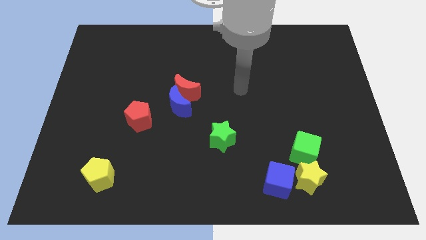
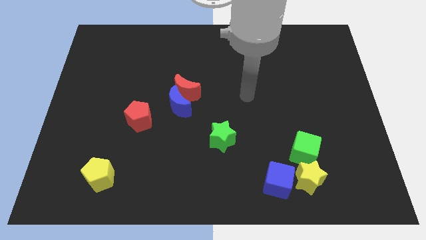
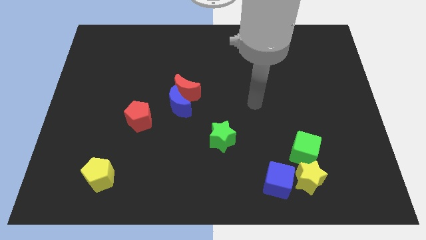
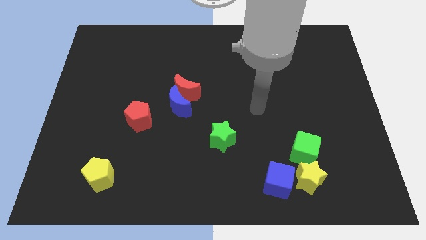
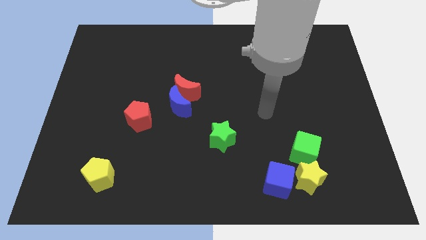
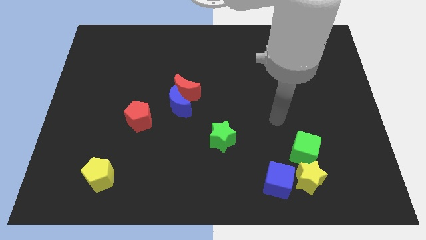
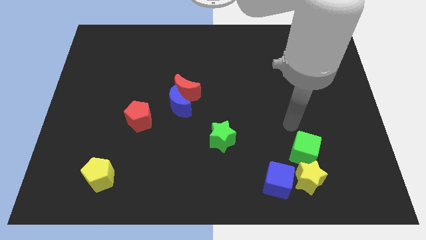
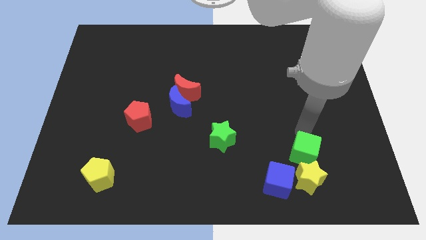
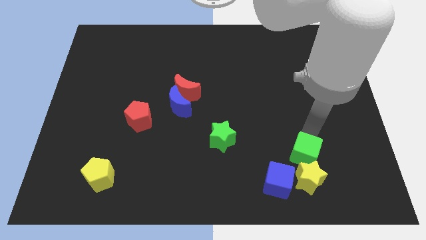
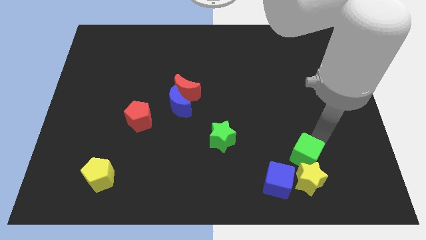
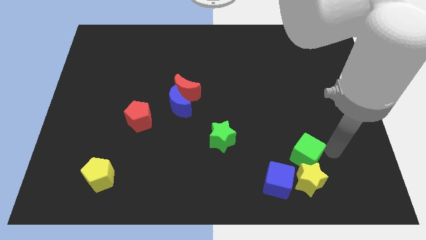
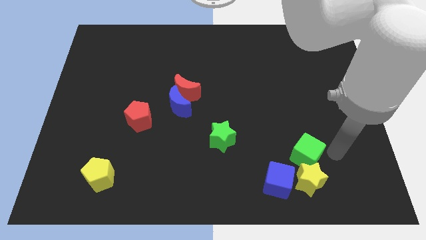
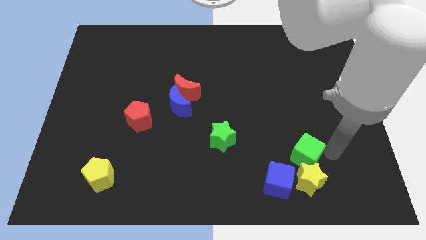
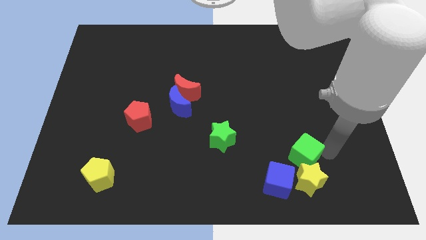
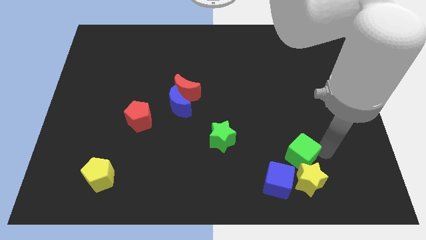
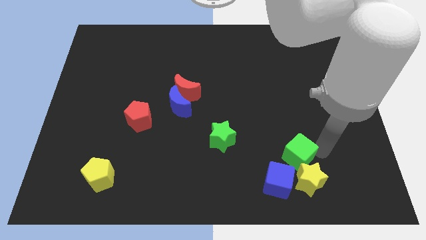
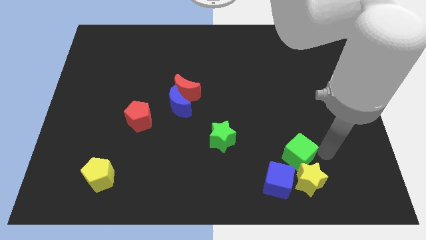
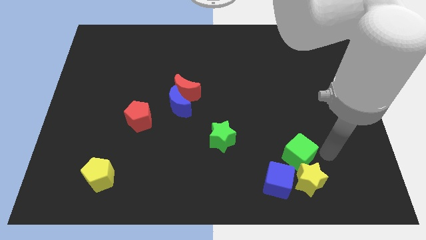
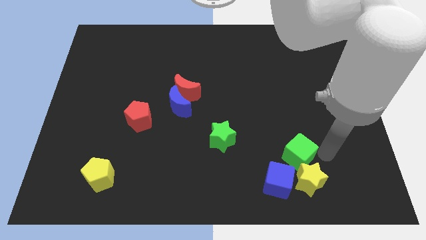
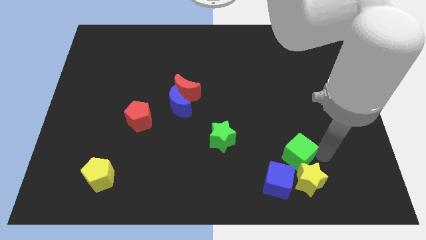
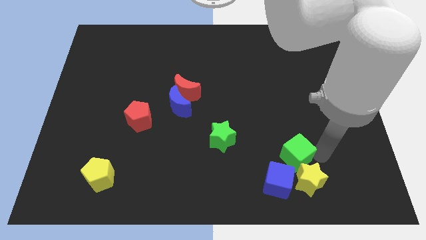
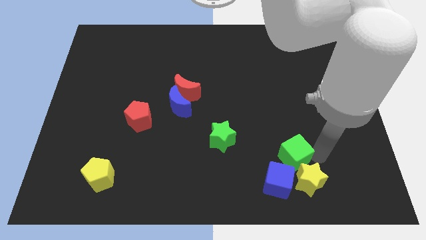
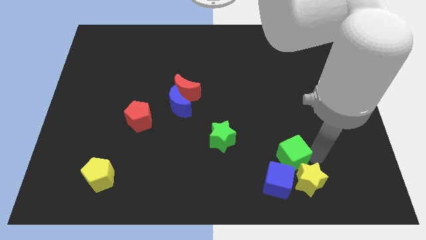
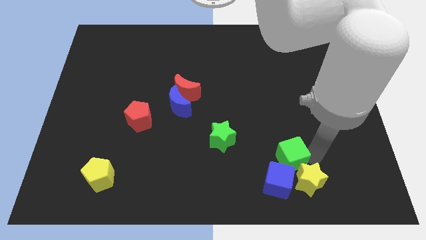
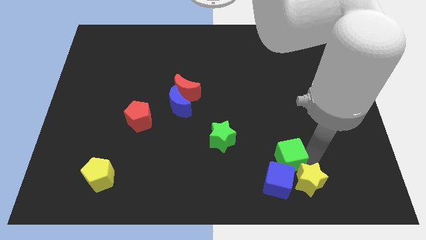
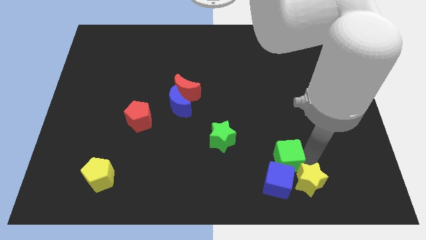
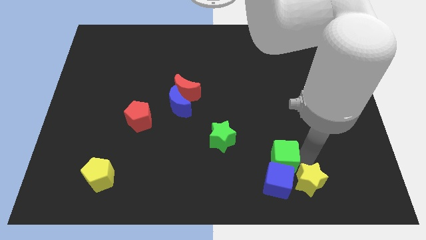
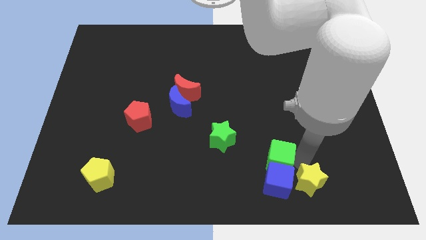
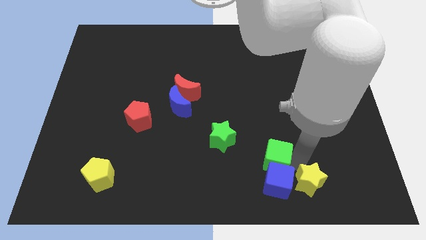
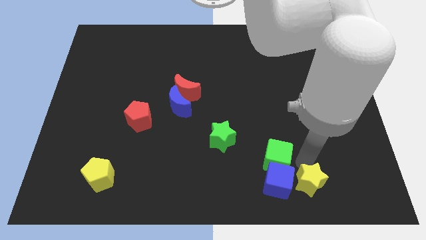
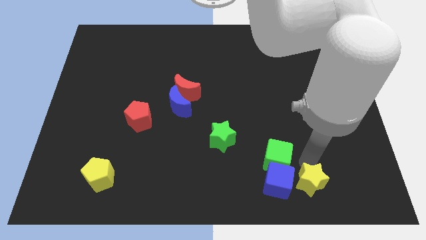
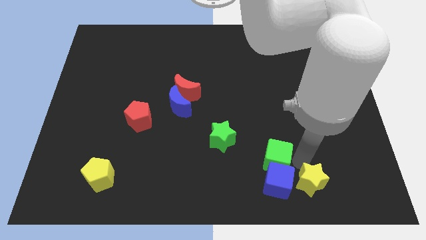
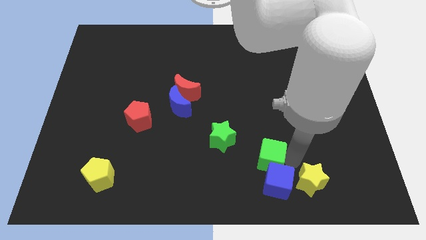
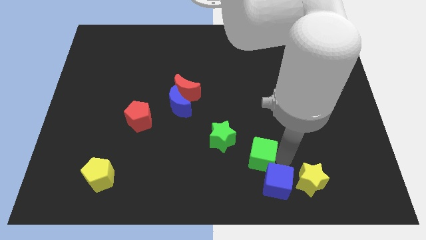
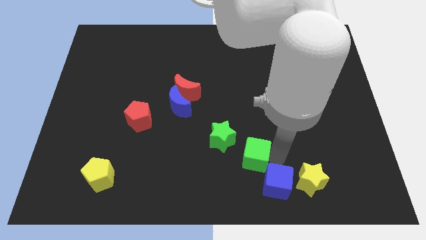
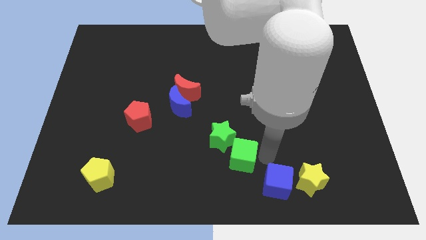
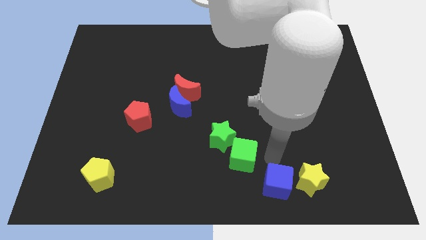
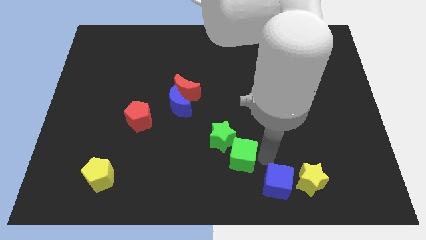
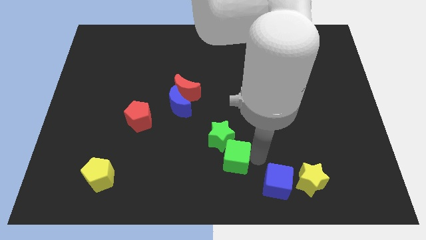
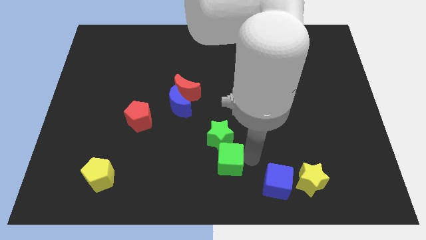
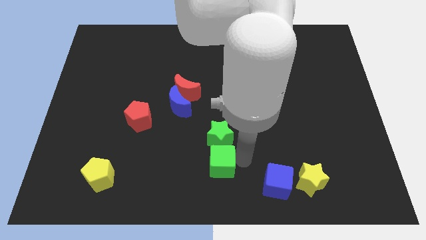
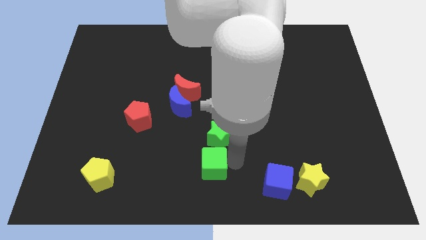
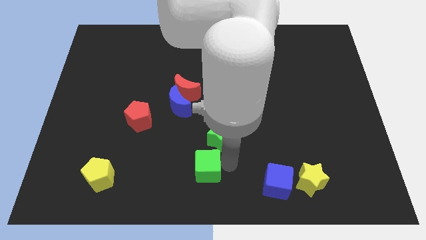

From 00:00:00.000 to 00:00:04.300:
move the green cube to the left

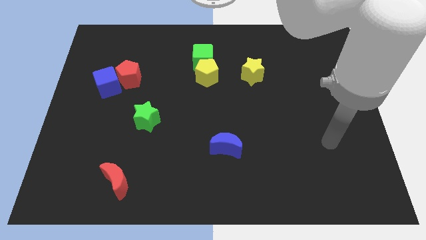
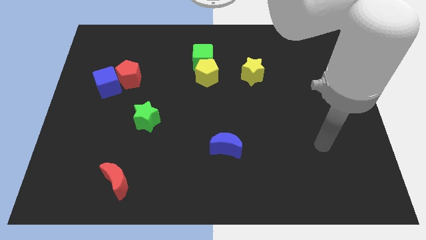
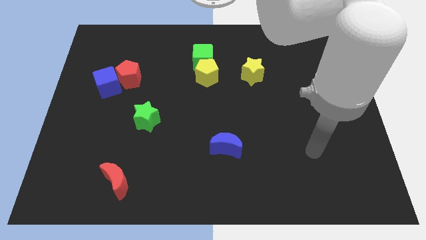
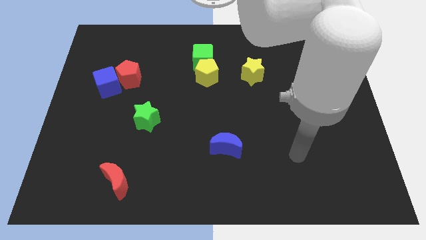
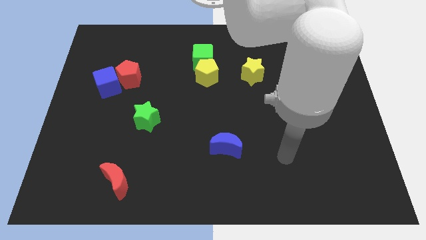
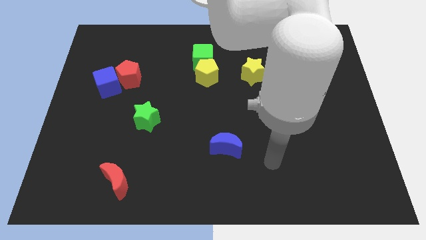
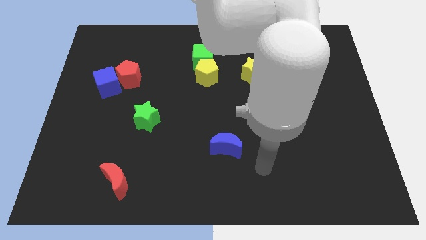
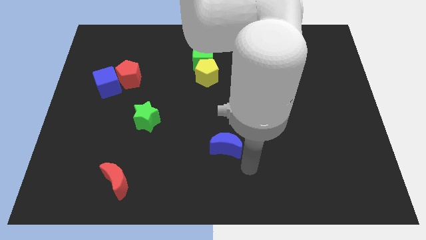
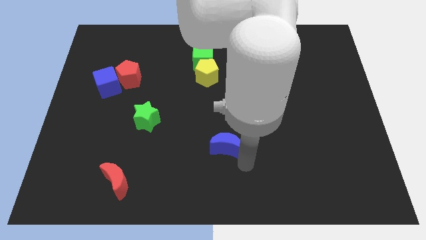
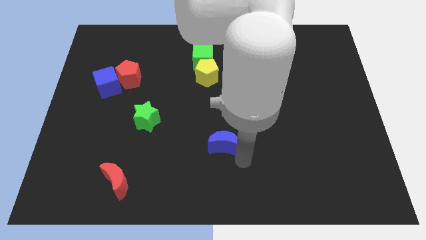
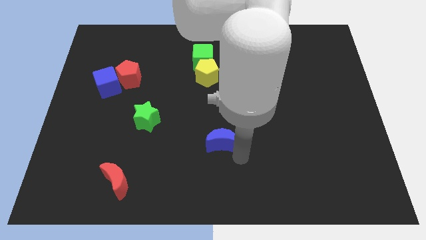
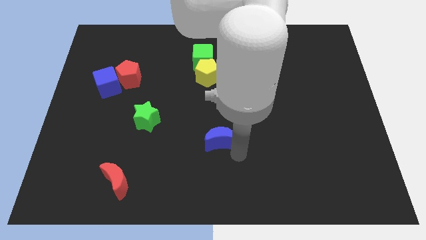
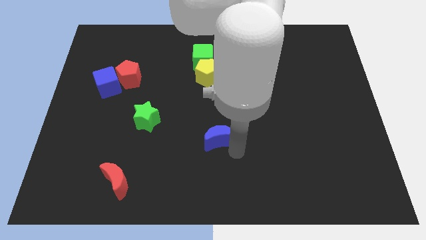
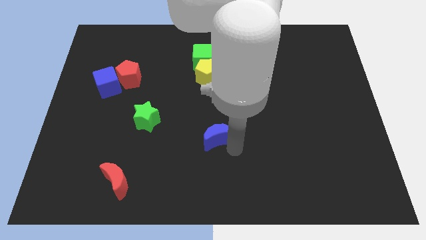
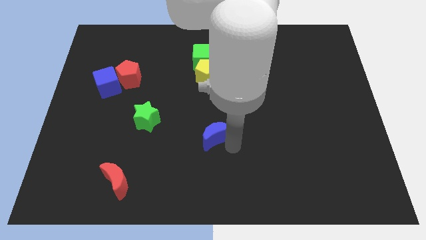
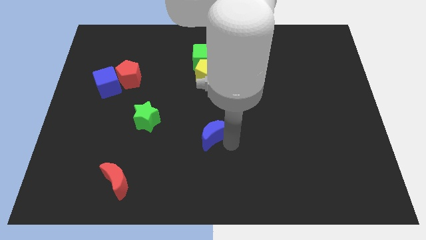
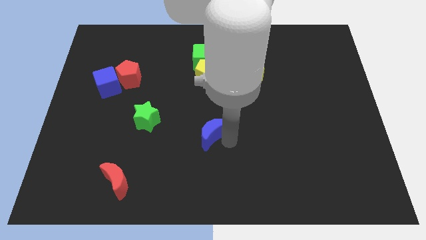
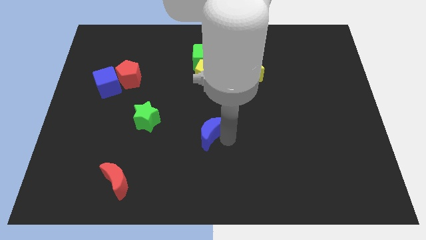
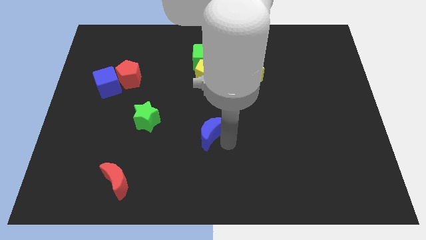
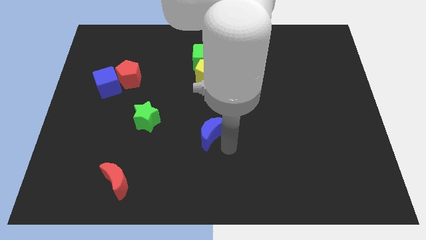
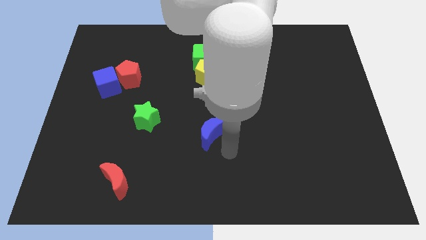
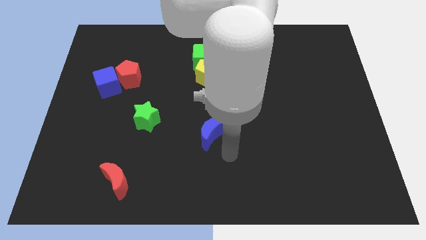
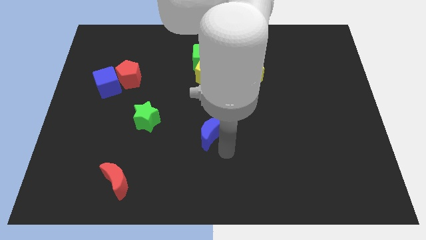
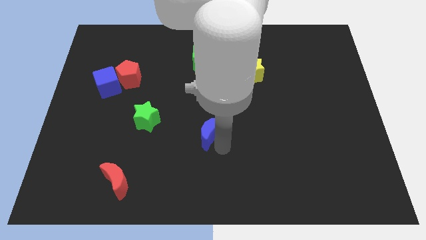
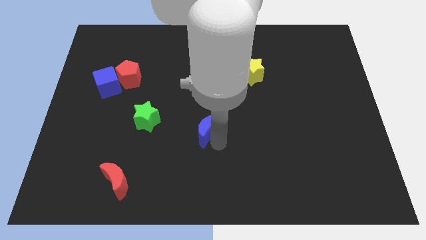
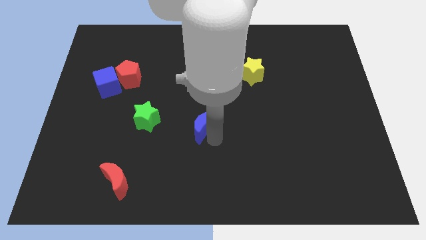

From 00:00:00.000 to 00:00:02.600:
push the blue moon a little diagonally up and to the left

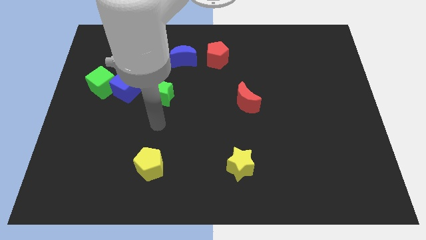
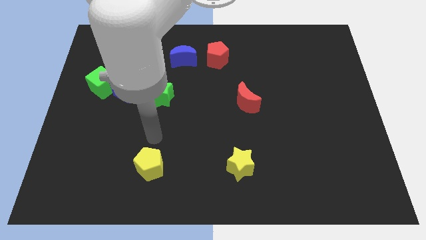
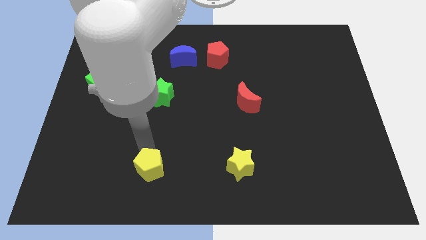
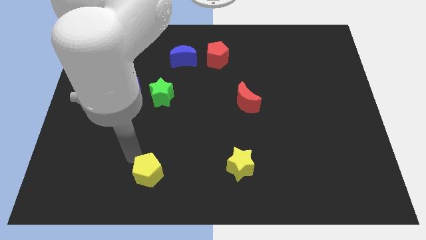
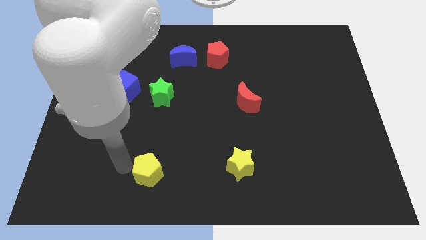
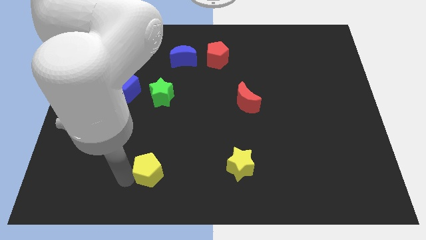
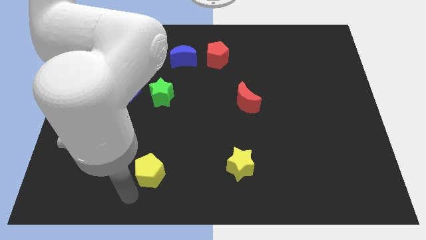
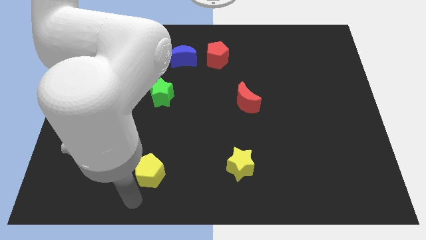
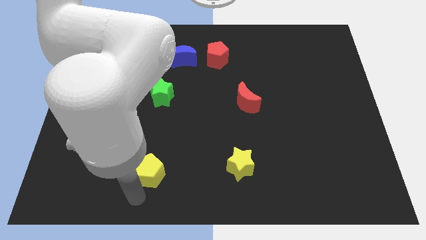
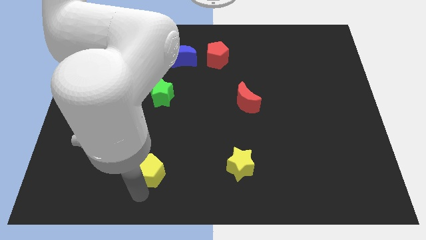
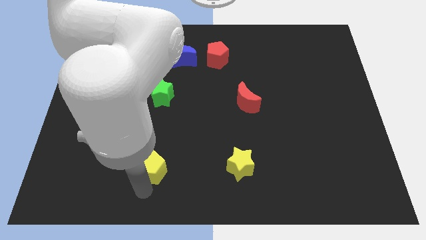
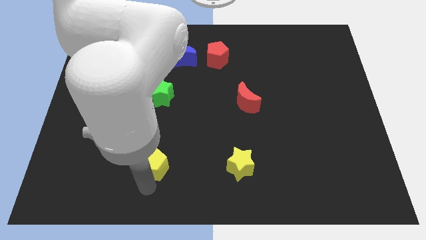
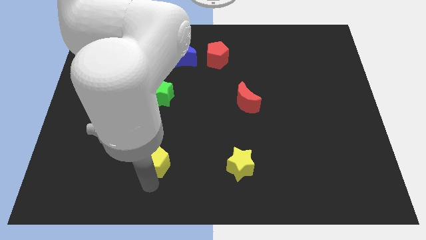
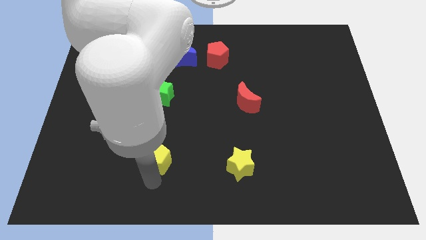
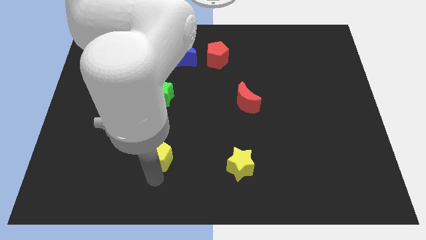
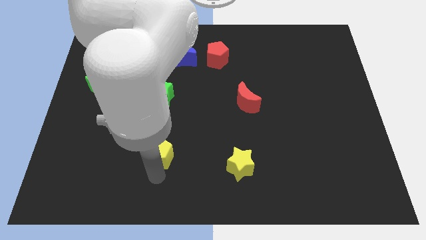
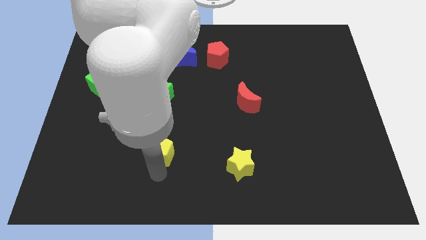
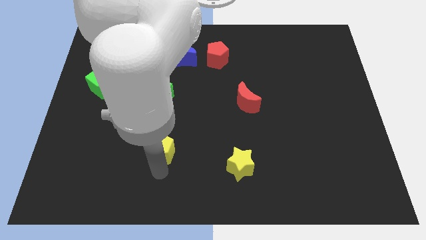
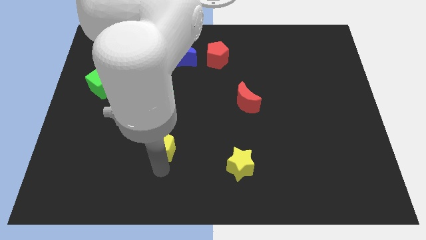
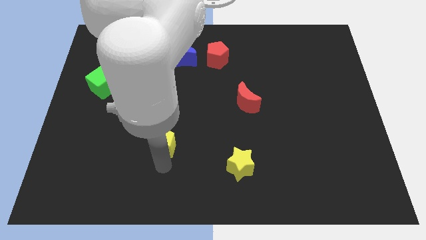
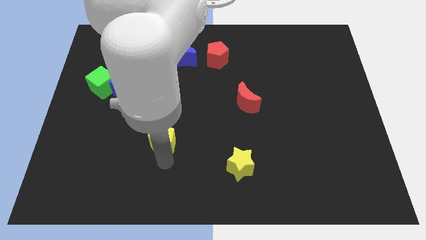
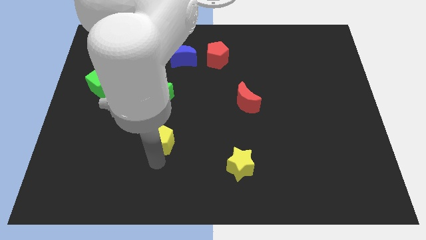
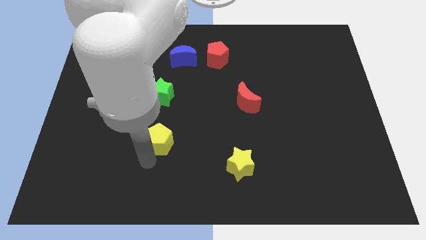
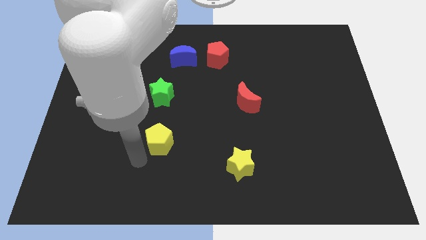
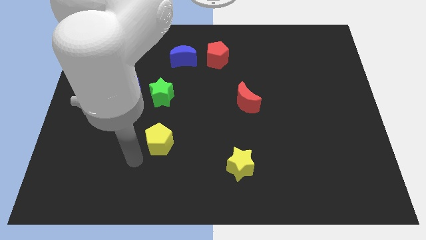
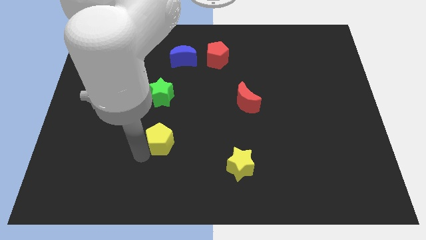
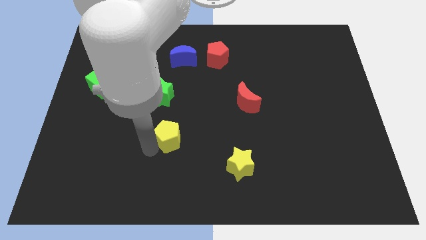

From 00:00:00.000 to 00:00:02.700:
slightly push the yellow pentagon upwards and right diagonally
